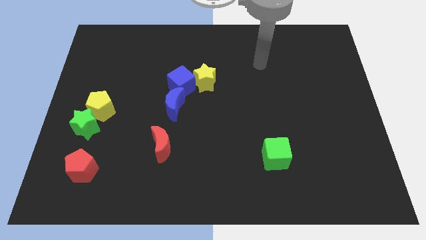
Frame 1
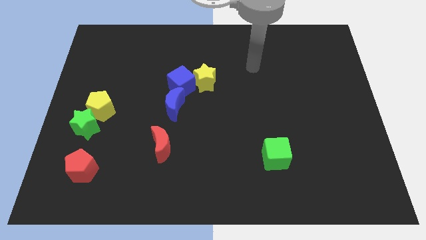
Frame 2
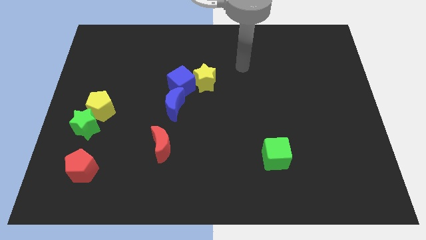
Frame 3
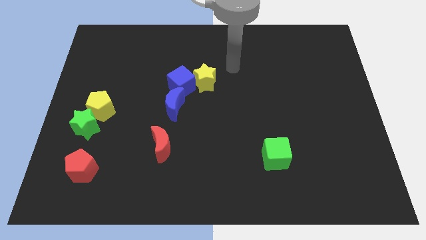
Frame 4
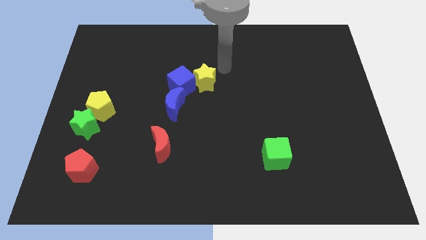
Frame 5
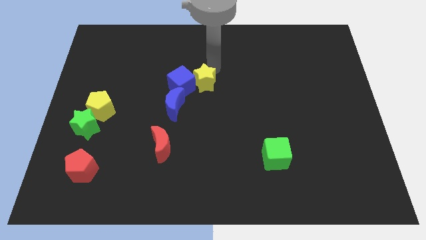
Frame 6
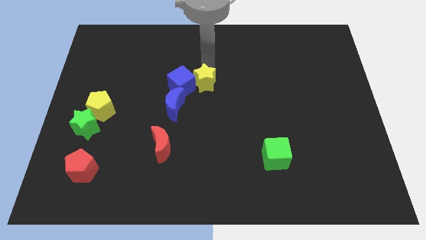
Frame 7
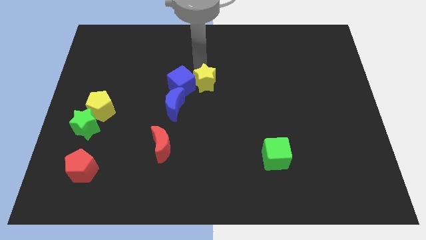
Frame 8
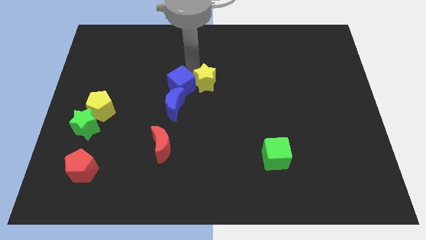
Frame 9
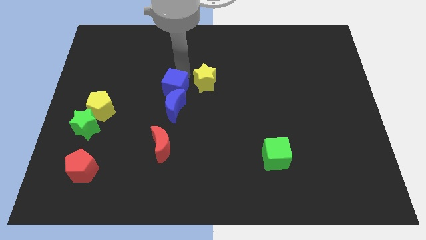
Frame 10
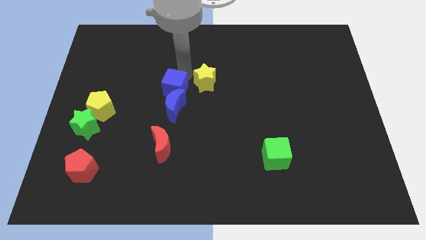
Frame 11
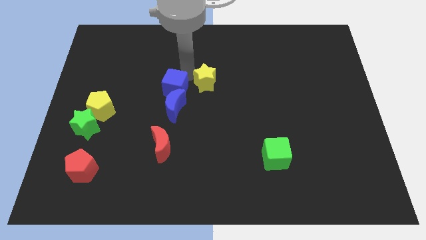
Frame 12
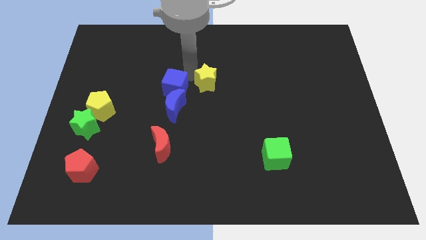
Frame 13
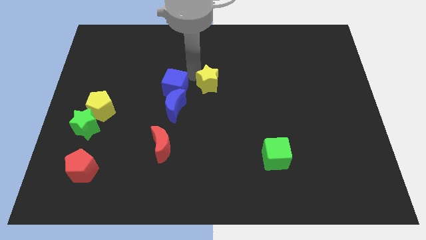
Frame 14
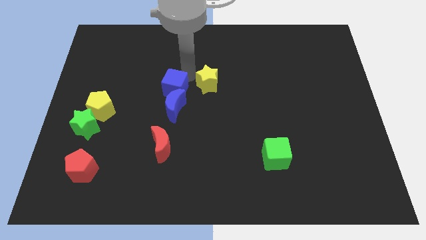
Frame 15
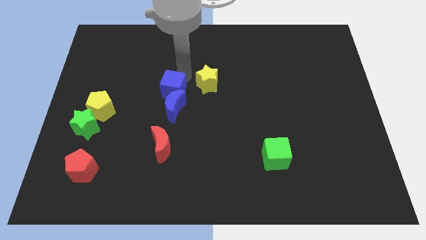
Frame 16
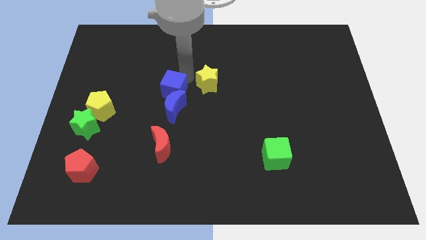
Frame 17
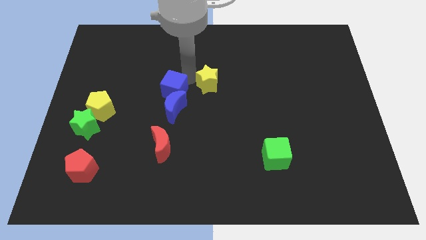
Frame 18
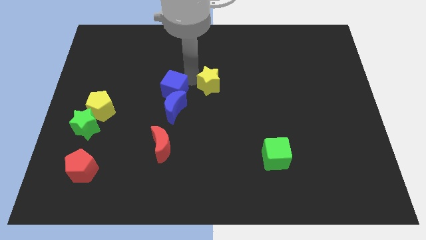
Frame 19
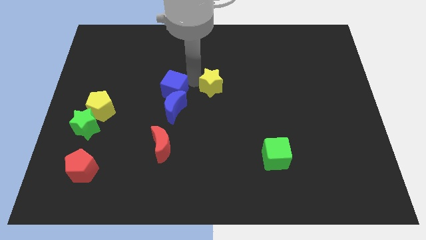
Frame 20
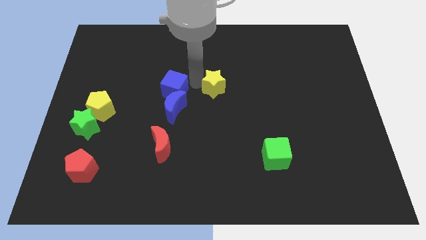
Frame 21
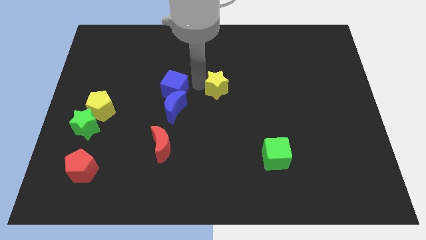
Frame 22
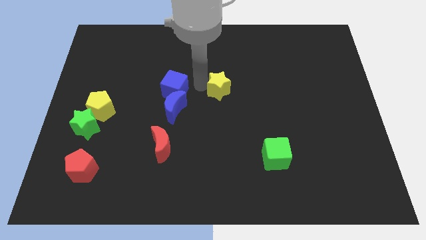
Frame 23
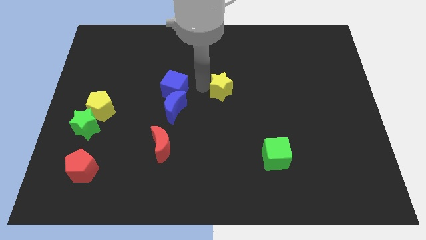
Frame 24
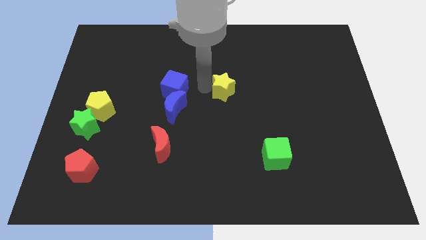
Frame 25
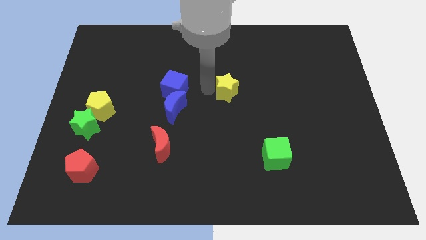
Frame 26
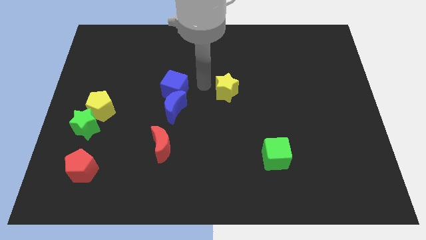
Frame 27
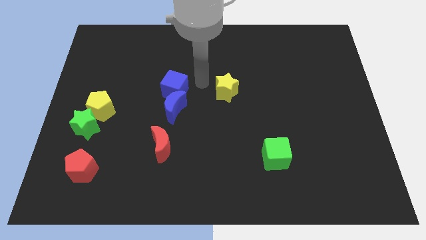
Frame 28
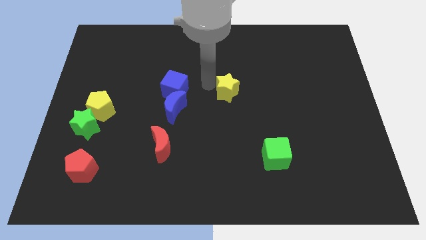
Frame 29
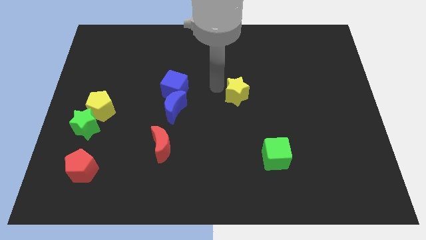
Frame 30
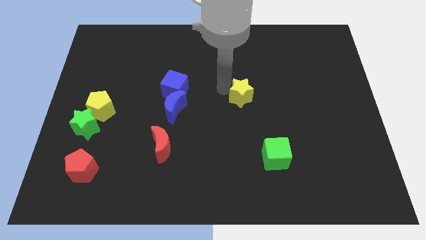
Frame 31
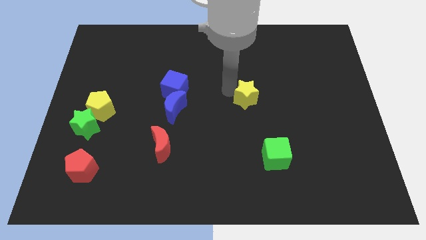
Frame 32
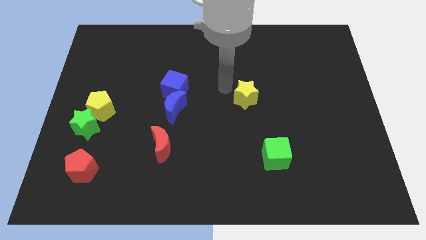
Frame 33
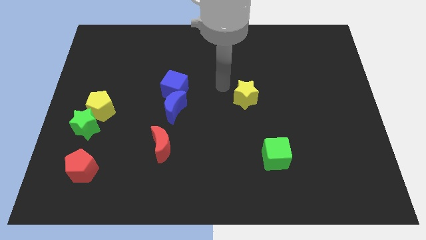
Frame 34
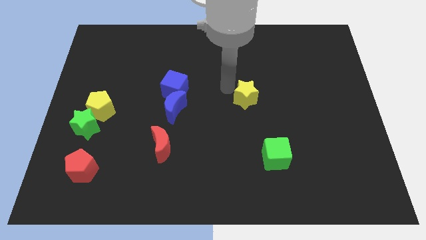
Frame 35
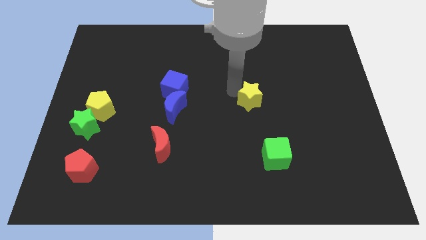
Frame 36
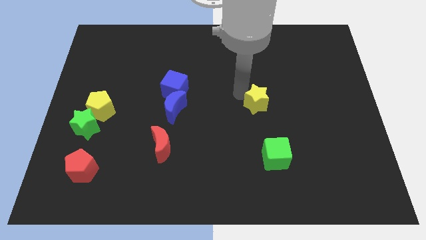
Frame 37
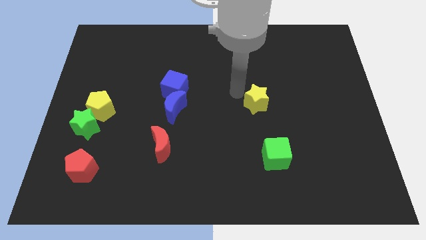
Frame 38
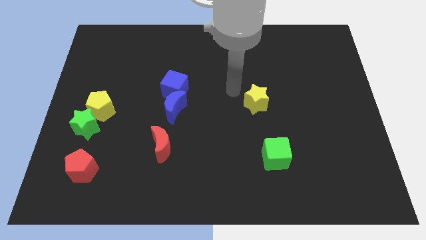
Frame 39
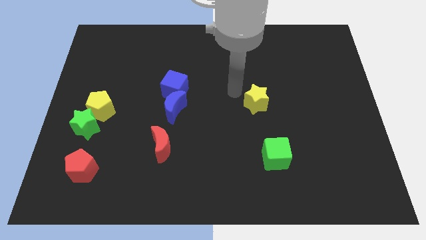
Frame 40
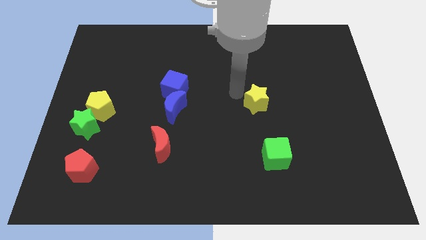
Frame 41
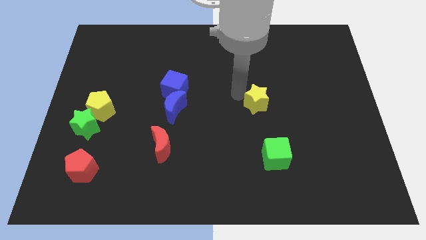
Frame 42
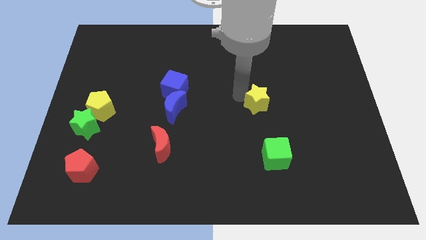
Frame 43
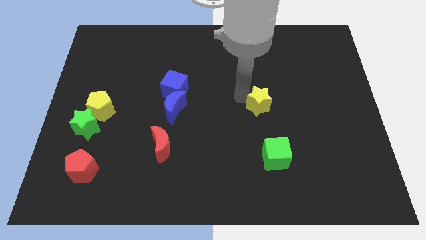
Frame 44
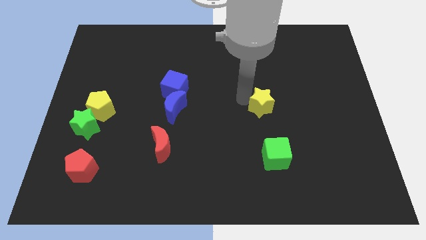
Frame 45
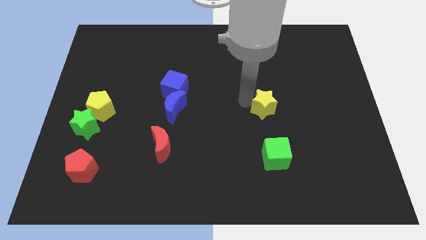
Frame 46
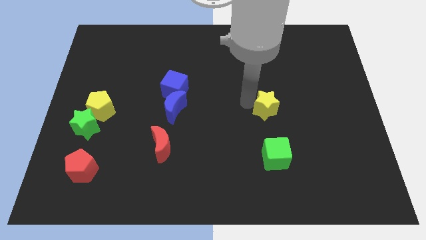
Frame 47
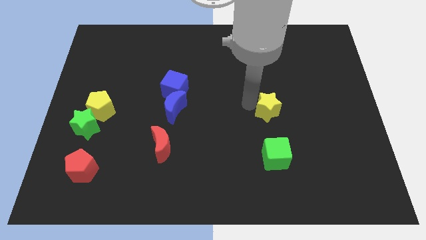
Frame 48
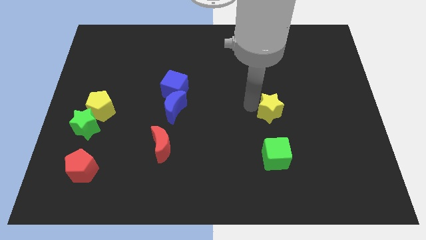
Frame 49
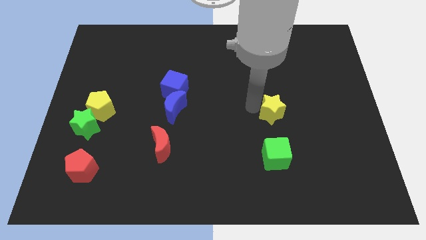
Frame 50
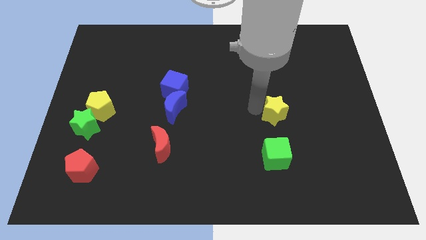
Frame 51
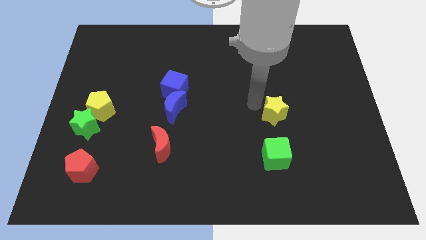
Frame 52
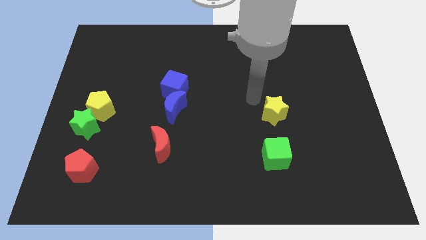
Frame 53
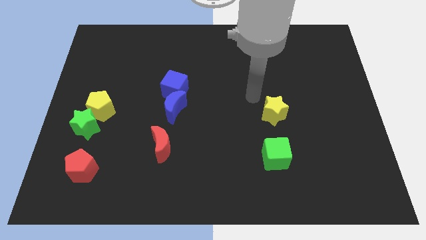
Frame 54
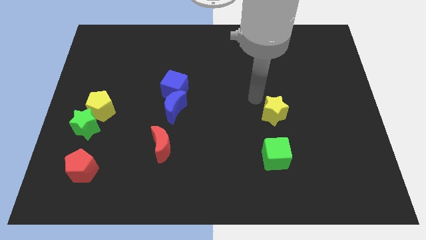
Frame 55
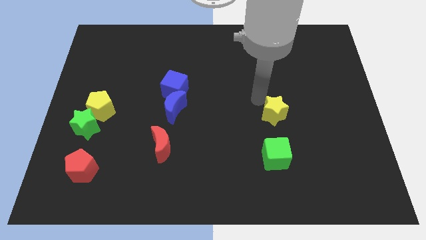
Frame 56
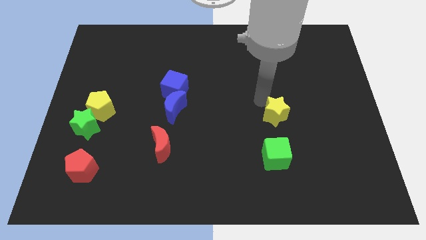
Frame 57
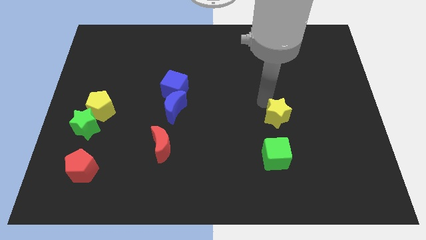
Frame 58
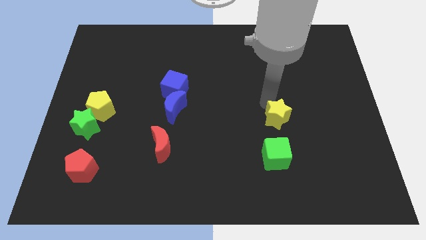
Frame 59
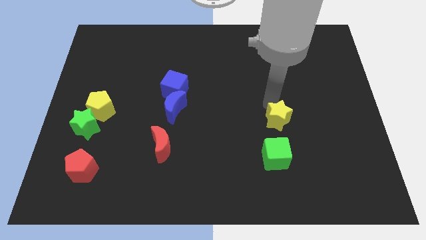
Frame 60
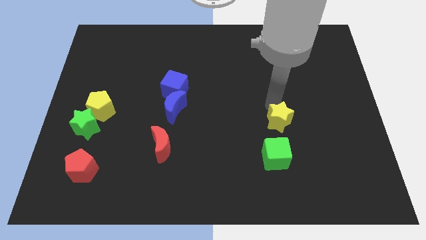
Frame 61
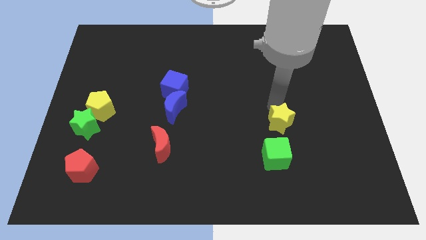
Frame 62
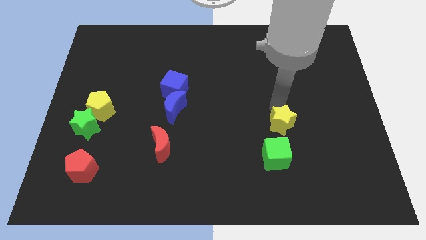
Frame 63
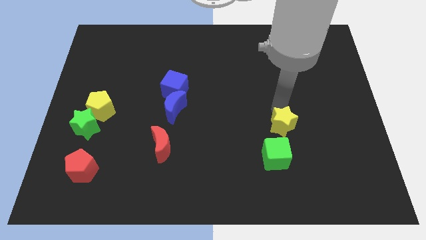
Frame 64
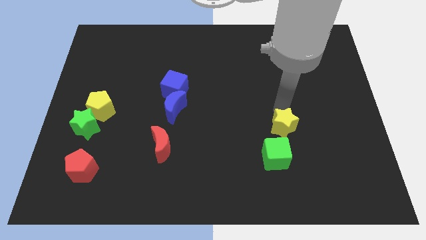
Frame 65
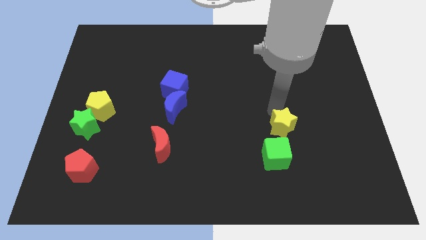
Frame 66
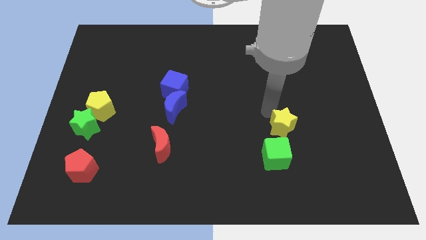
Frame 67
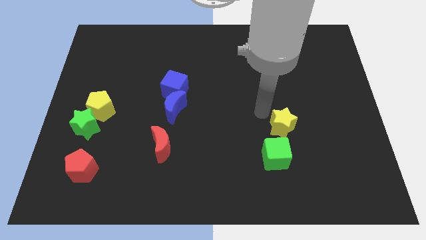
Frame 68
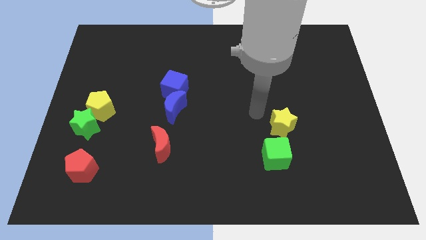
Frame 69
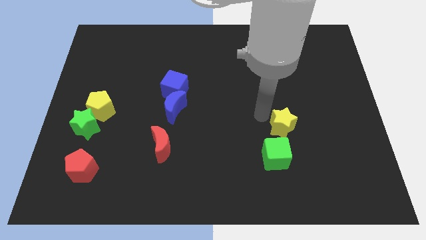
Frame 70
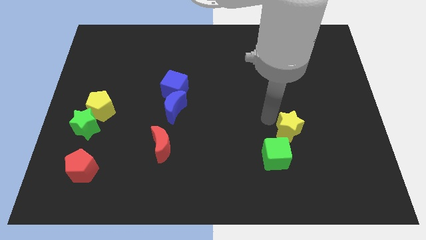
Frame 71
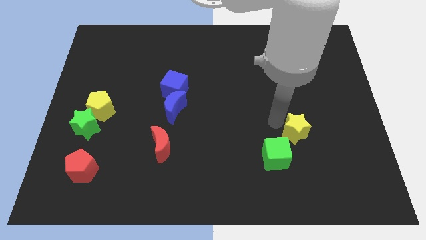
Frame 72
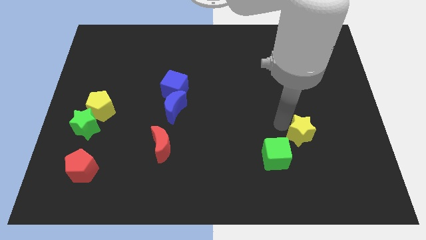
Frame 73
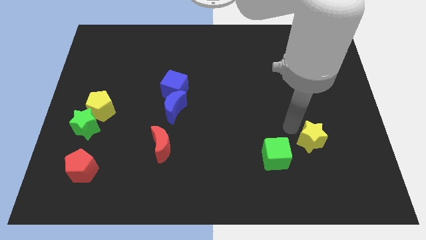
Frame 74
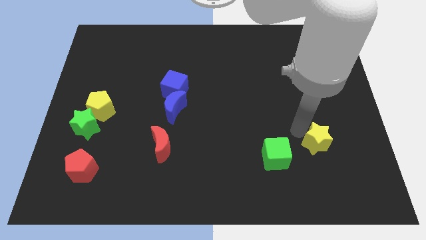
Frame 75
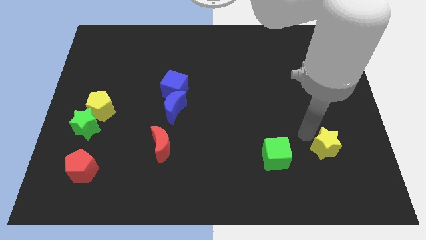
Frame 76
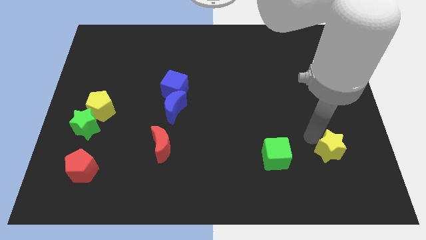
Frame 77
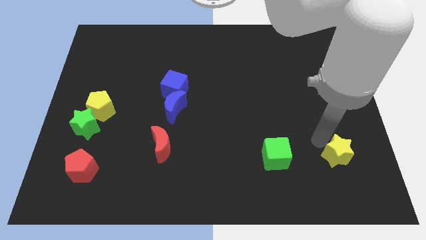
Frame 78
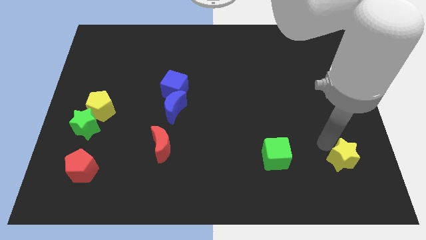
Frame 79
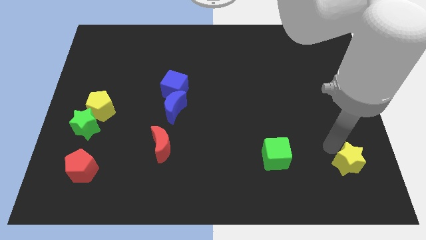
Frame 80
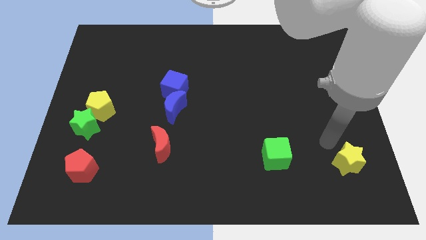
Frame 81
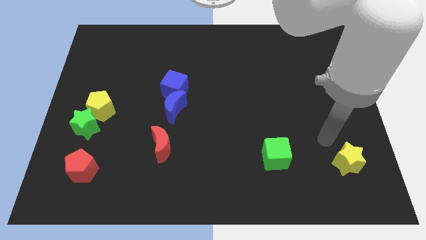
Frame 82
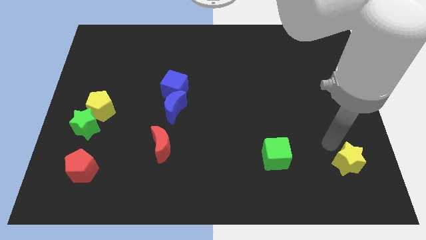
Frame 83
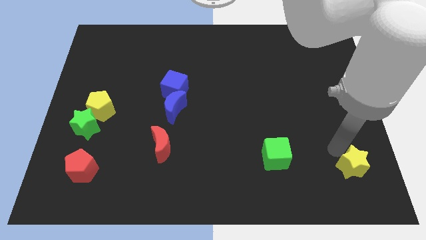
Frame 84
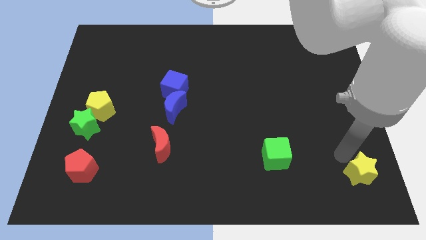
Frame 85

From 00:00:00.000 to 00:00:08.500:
put the yellow star to the bottom right
